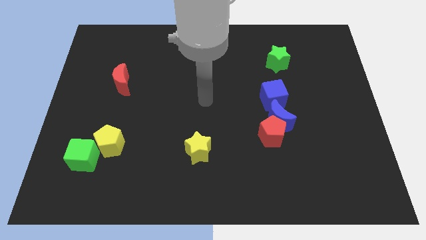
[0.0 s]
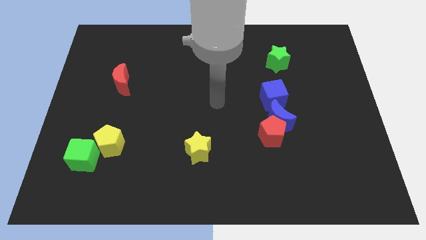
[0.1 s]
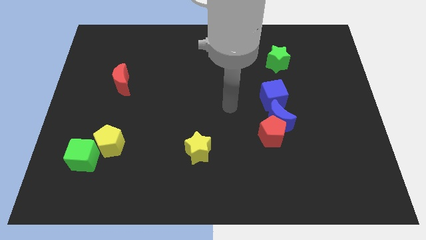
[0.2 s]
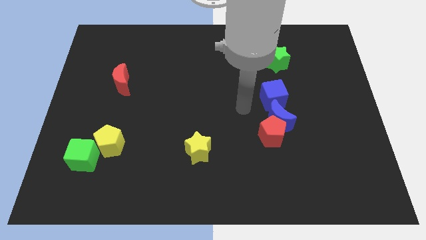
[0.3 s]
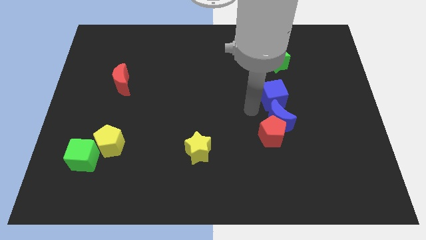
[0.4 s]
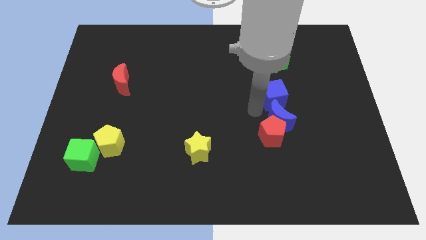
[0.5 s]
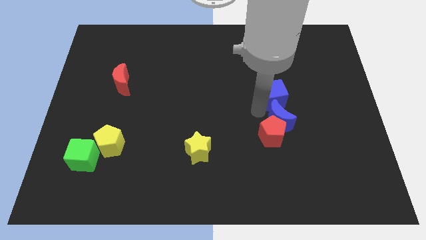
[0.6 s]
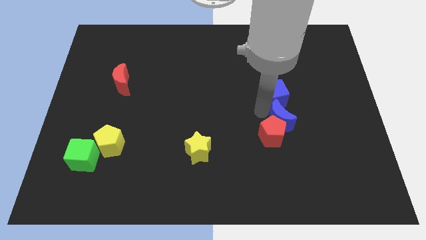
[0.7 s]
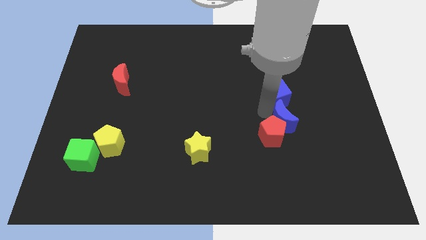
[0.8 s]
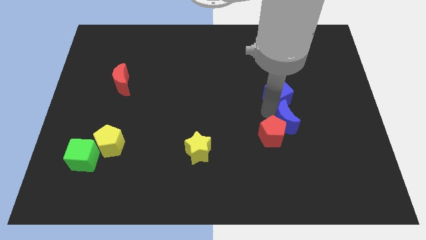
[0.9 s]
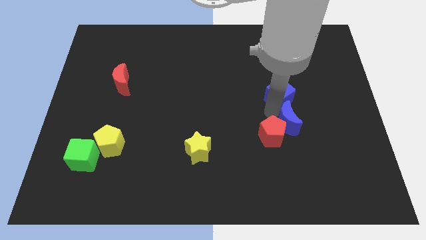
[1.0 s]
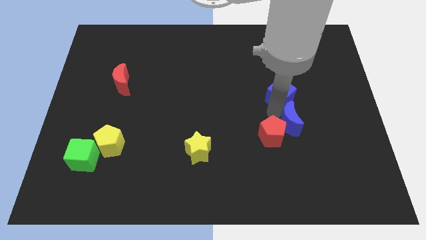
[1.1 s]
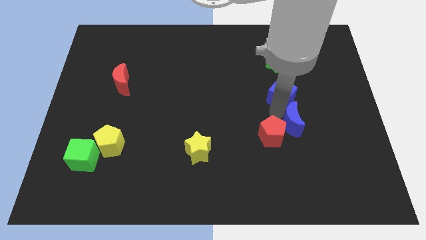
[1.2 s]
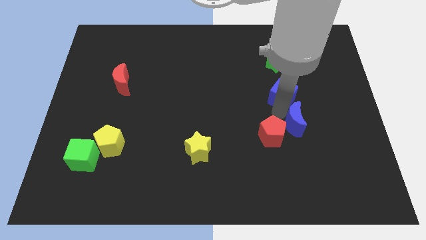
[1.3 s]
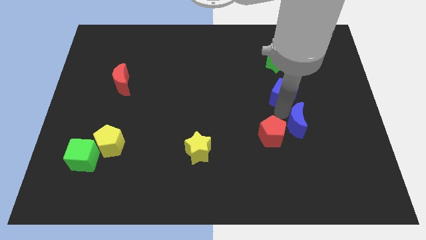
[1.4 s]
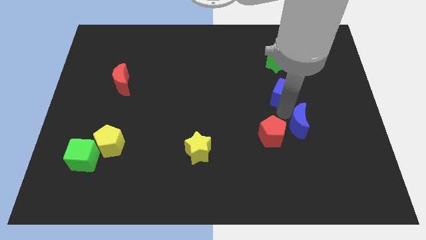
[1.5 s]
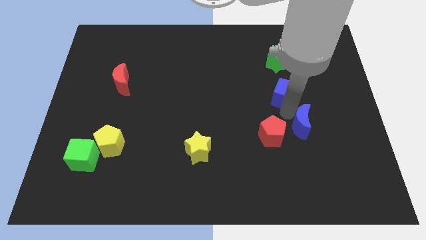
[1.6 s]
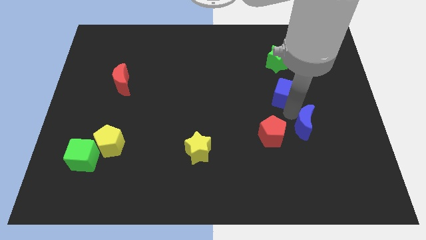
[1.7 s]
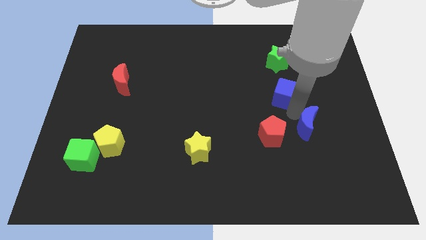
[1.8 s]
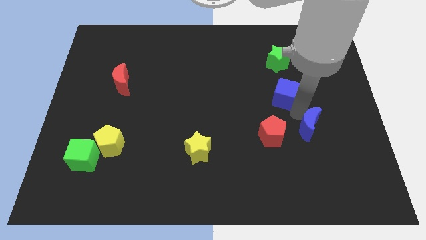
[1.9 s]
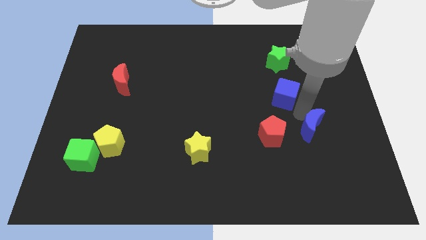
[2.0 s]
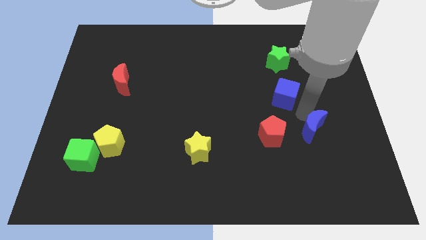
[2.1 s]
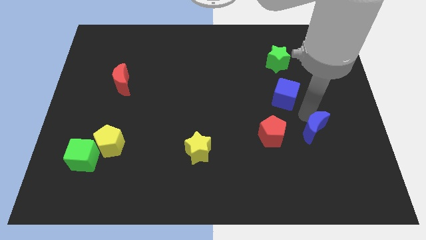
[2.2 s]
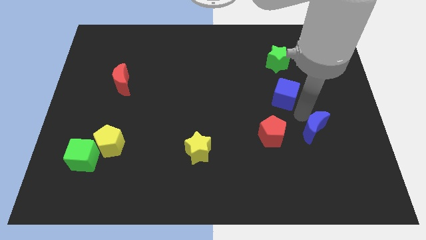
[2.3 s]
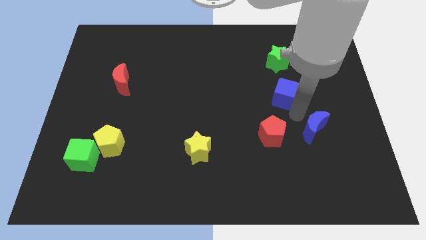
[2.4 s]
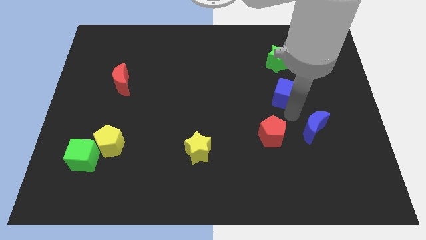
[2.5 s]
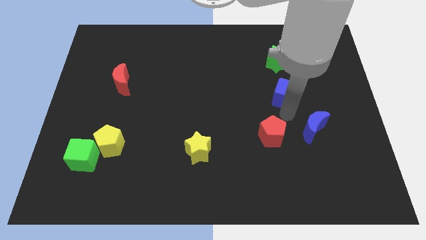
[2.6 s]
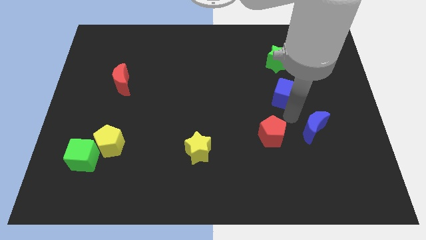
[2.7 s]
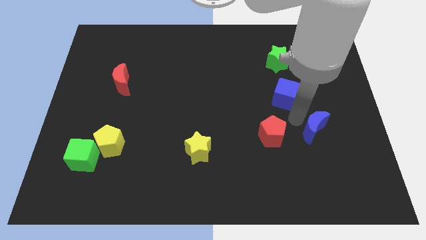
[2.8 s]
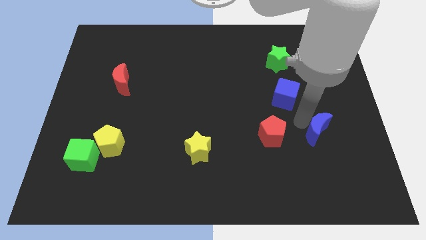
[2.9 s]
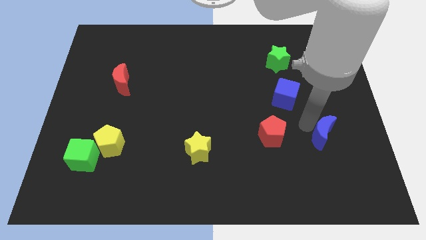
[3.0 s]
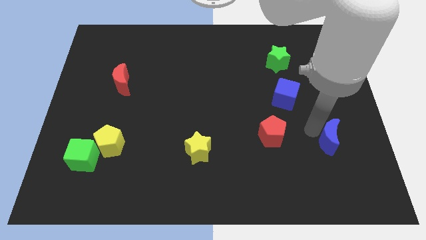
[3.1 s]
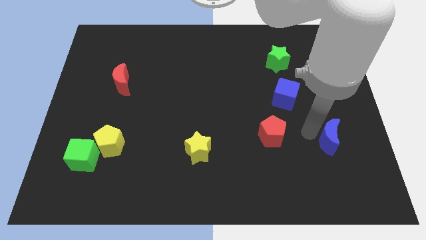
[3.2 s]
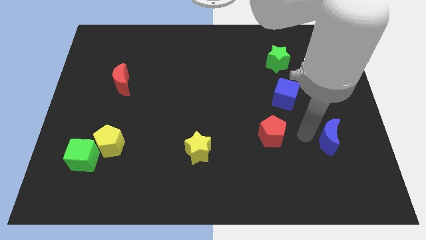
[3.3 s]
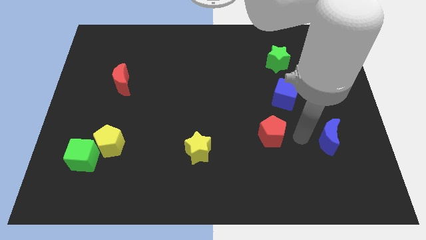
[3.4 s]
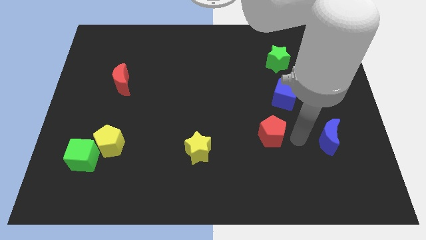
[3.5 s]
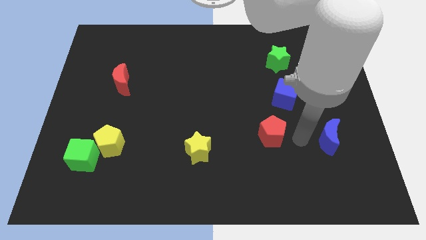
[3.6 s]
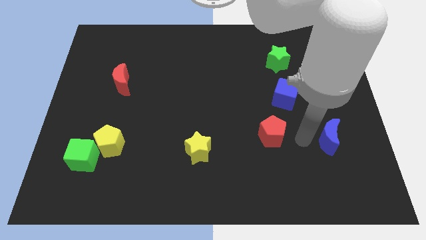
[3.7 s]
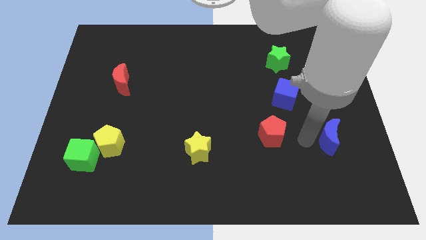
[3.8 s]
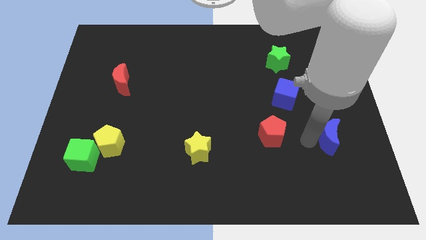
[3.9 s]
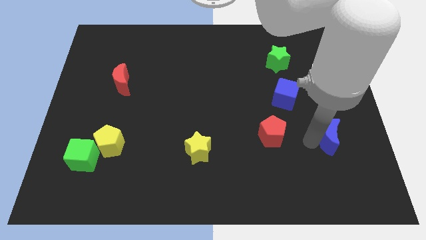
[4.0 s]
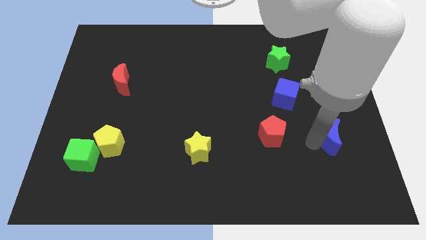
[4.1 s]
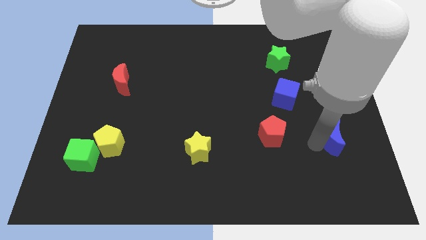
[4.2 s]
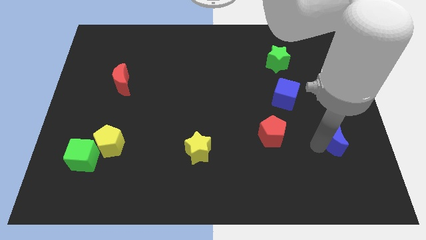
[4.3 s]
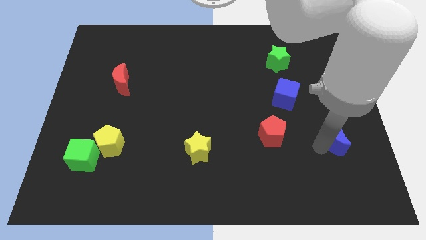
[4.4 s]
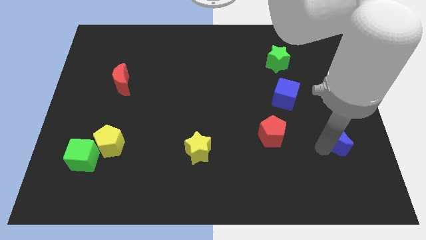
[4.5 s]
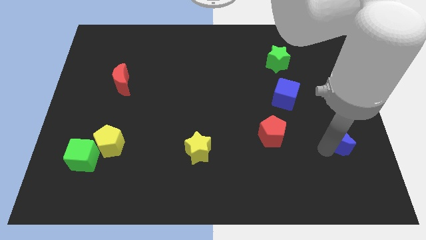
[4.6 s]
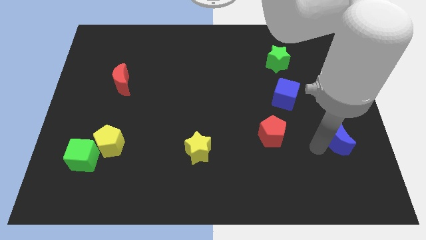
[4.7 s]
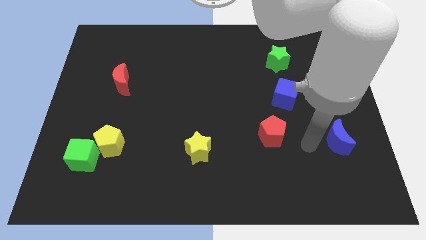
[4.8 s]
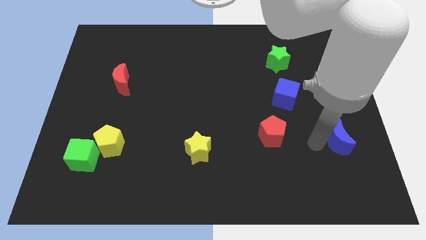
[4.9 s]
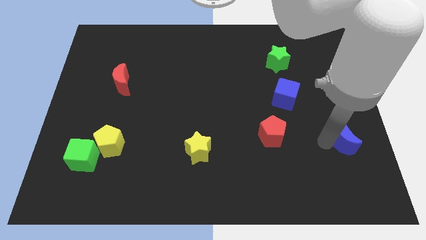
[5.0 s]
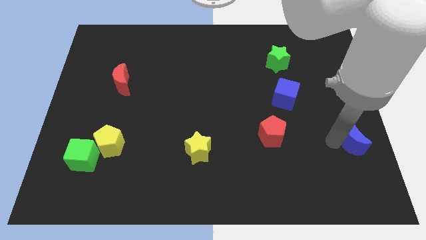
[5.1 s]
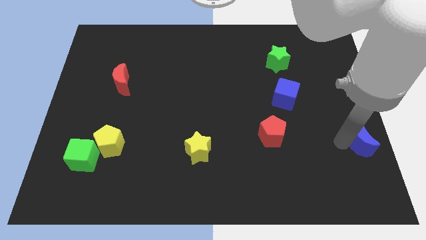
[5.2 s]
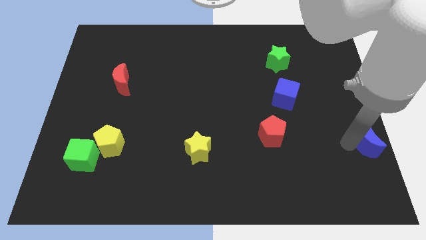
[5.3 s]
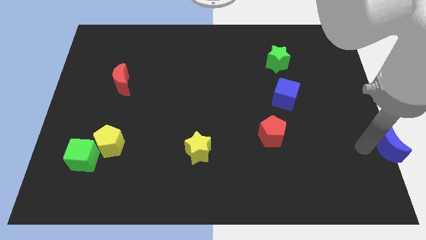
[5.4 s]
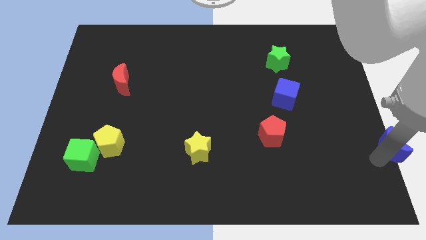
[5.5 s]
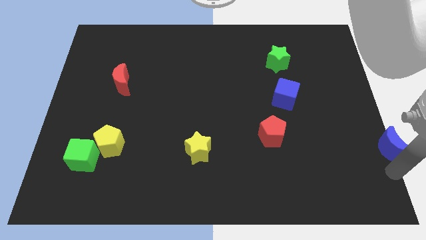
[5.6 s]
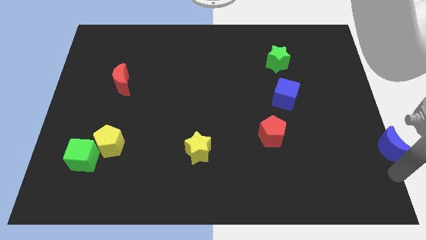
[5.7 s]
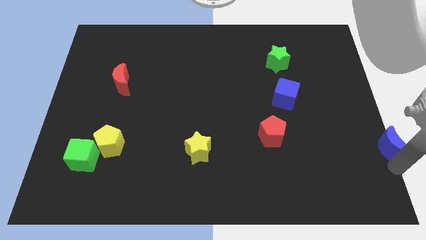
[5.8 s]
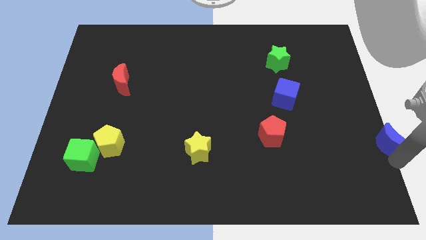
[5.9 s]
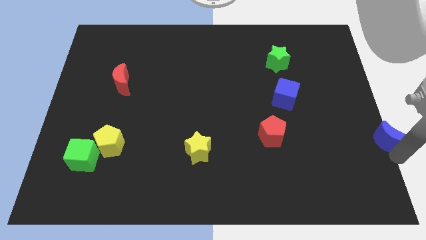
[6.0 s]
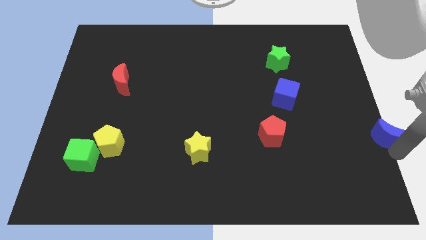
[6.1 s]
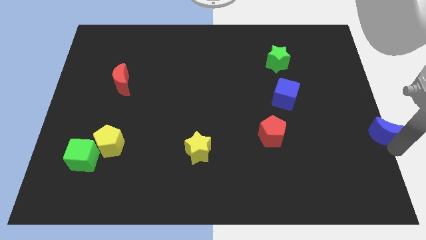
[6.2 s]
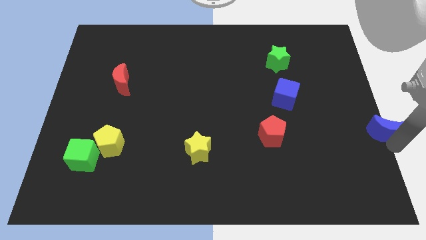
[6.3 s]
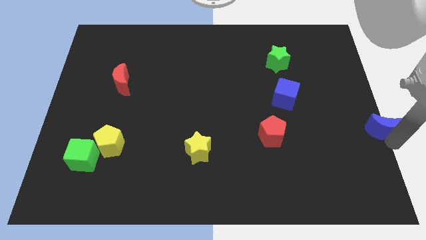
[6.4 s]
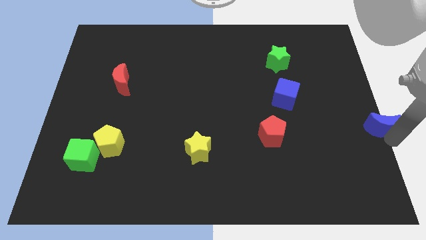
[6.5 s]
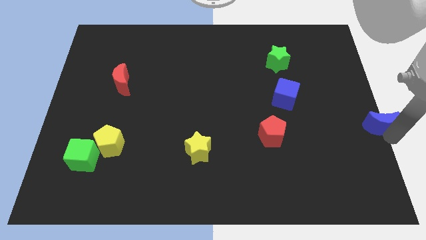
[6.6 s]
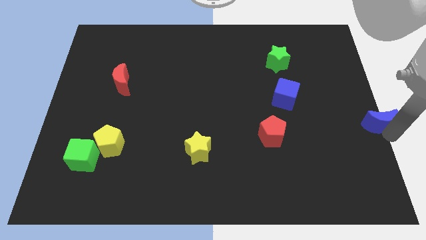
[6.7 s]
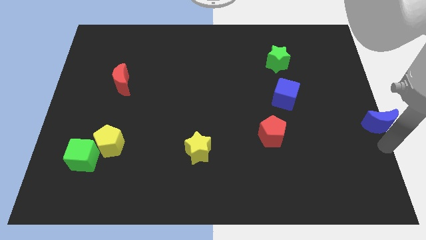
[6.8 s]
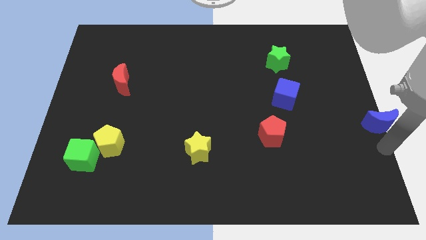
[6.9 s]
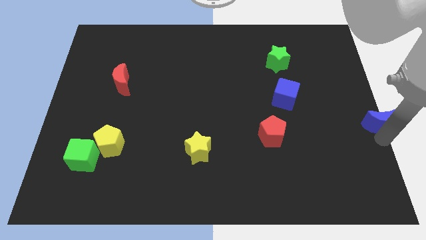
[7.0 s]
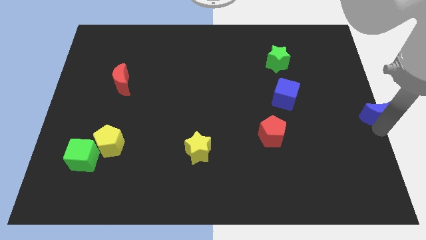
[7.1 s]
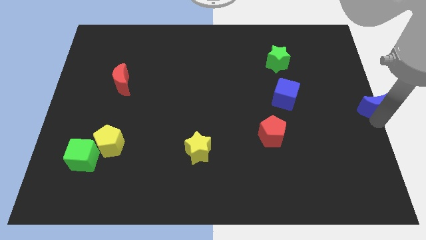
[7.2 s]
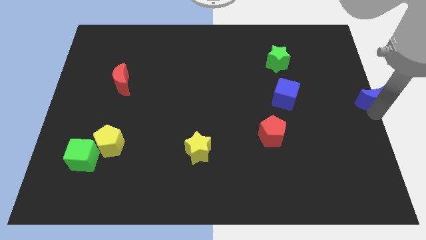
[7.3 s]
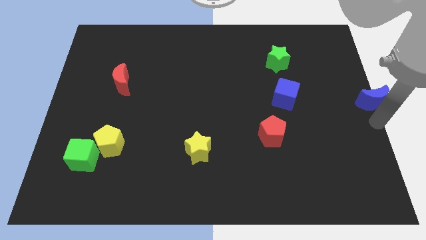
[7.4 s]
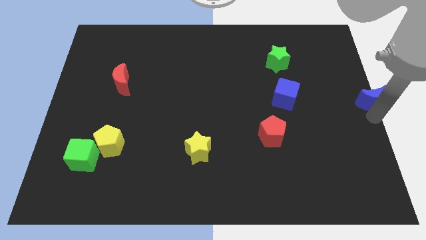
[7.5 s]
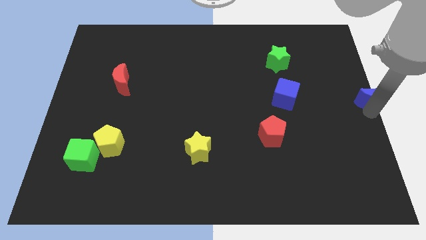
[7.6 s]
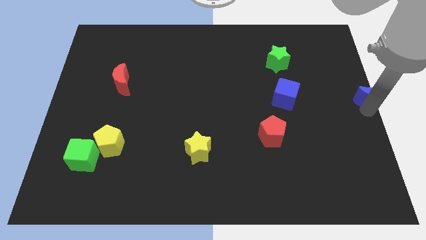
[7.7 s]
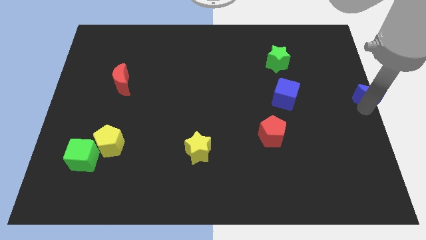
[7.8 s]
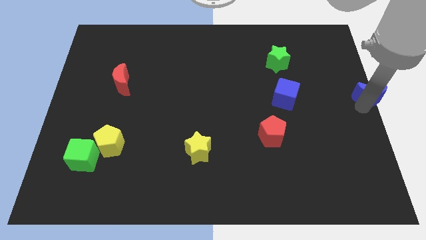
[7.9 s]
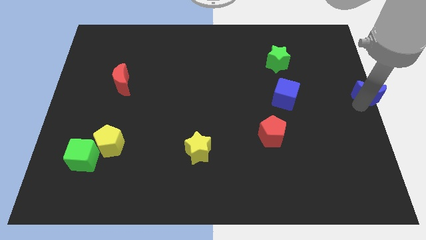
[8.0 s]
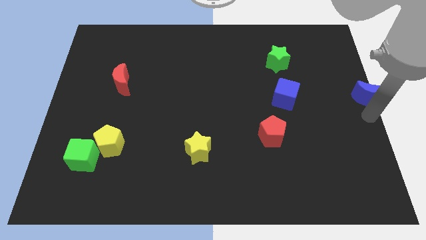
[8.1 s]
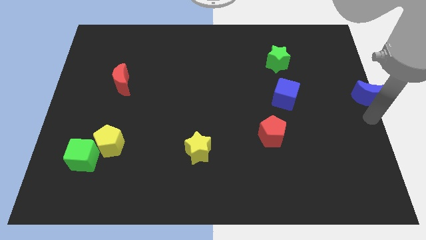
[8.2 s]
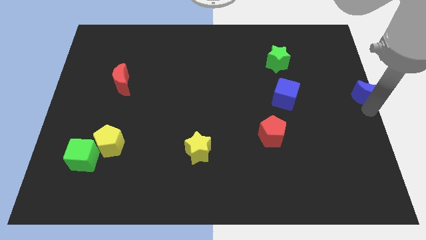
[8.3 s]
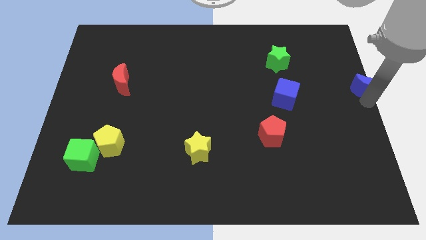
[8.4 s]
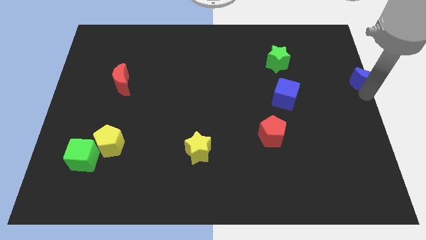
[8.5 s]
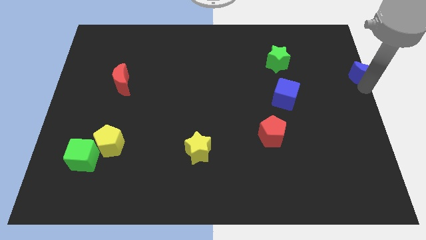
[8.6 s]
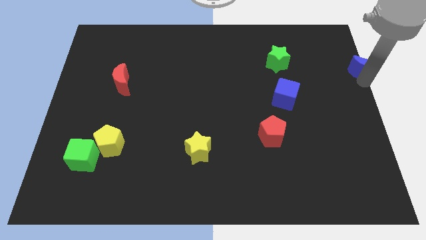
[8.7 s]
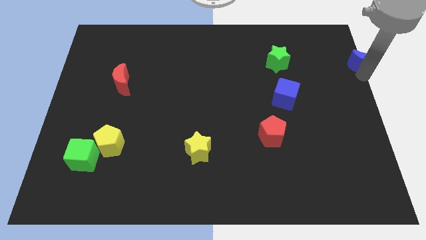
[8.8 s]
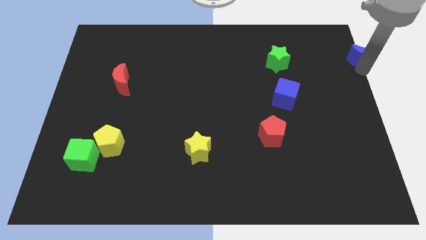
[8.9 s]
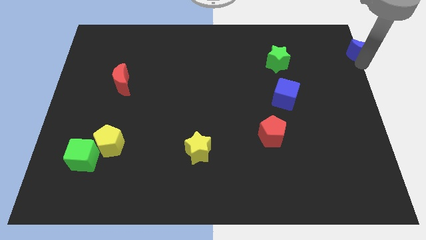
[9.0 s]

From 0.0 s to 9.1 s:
slide the blue moon to the upper right corner
